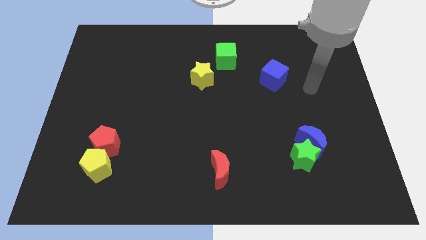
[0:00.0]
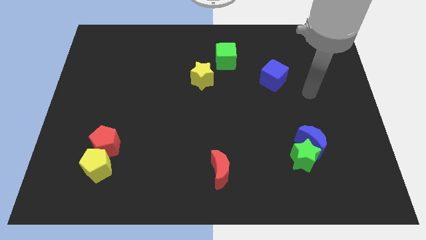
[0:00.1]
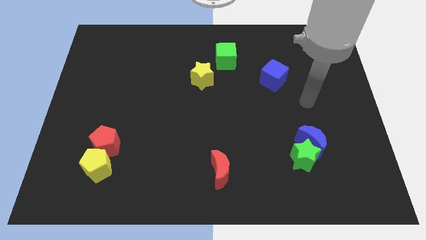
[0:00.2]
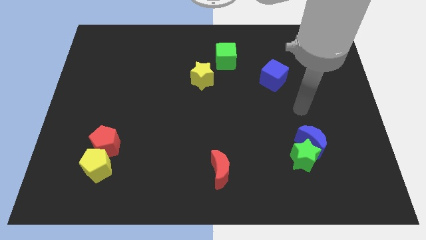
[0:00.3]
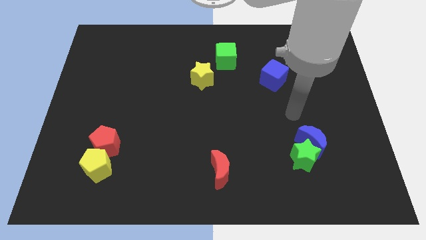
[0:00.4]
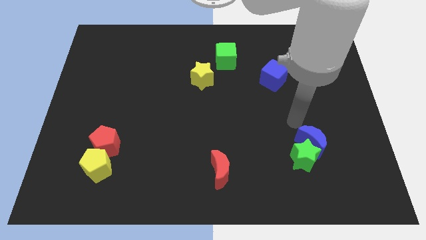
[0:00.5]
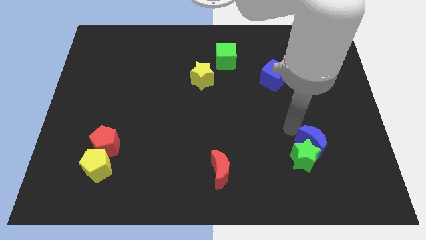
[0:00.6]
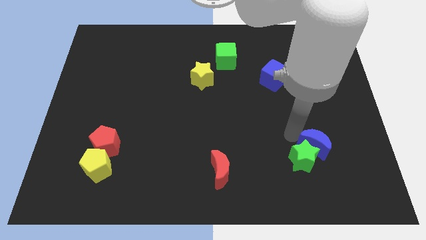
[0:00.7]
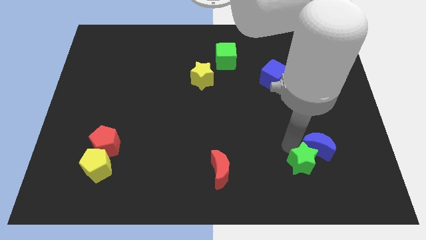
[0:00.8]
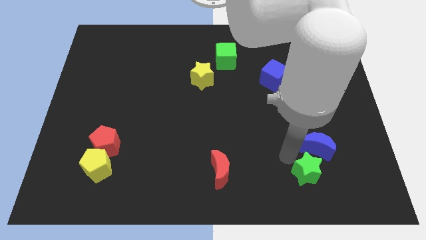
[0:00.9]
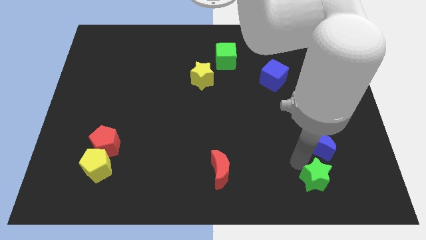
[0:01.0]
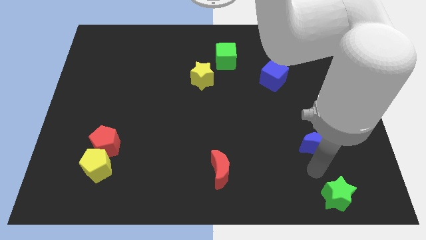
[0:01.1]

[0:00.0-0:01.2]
move the blue moon away from the green star

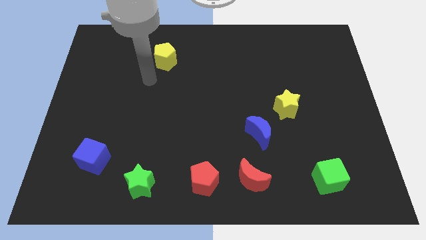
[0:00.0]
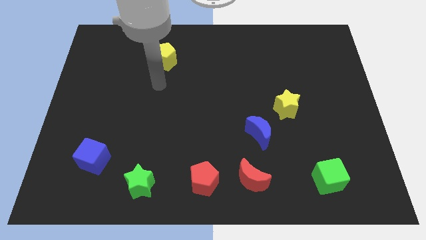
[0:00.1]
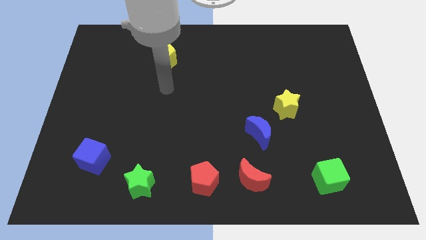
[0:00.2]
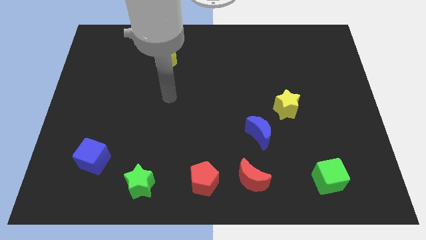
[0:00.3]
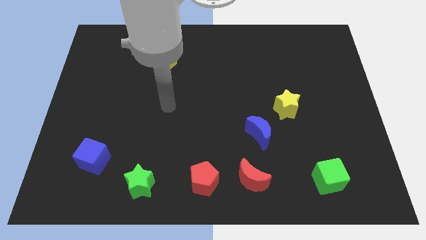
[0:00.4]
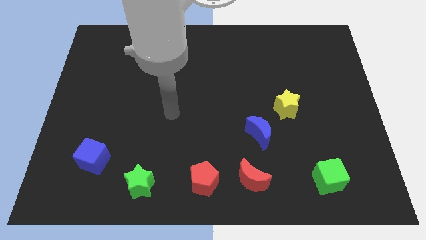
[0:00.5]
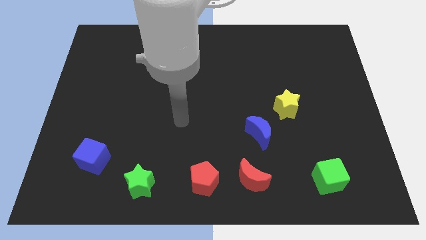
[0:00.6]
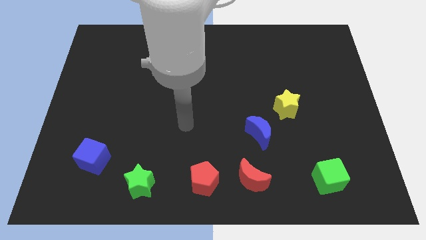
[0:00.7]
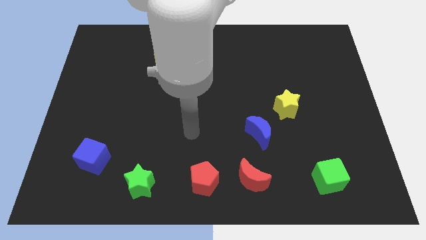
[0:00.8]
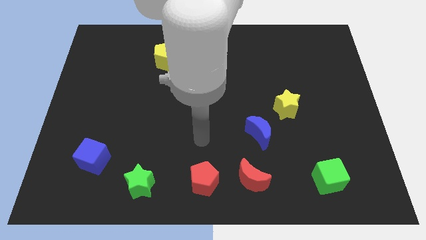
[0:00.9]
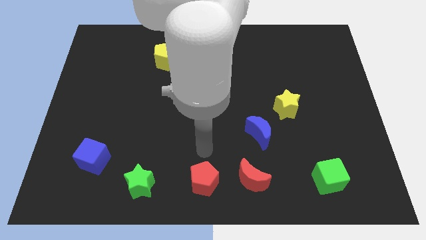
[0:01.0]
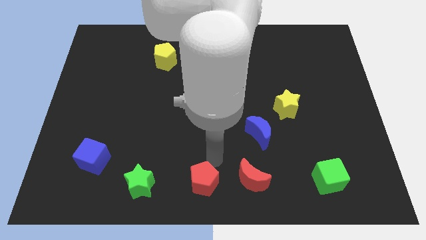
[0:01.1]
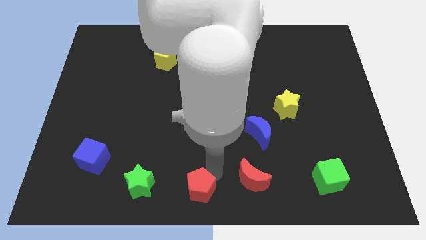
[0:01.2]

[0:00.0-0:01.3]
pull the red moon apart from the red pentagon

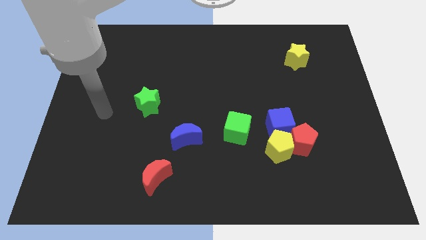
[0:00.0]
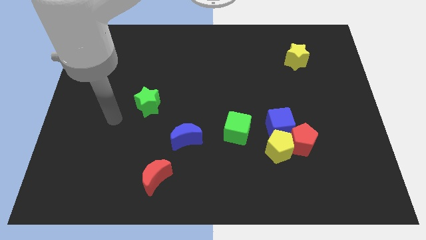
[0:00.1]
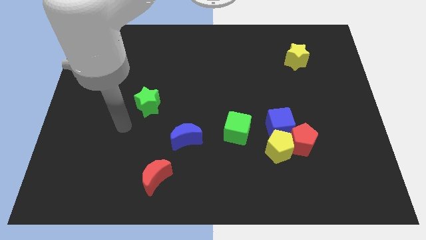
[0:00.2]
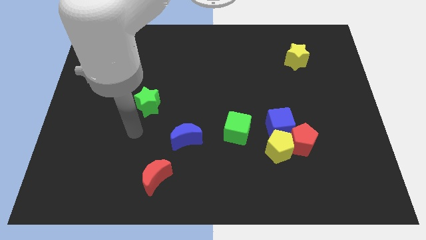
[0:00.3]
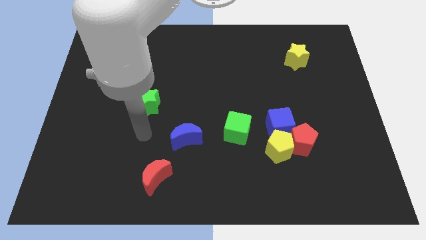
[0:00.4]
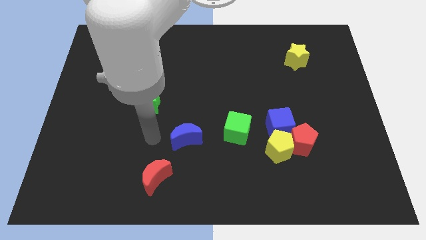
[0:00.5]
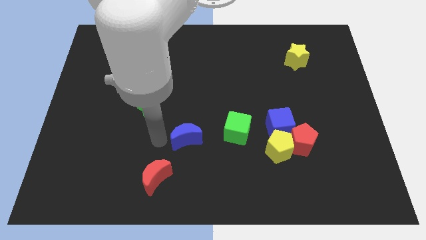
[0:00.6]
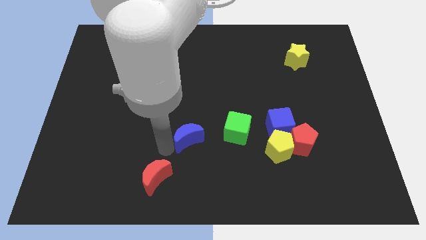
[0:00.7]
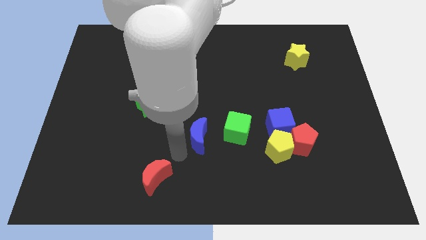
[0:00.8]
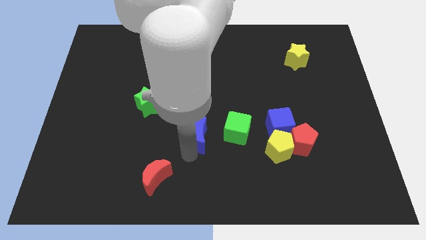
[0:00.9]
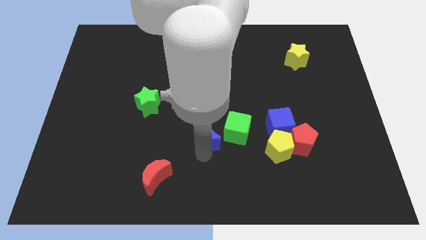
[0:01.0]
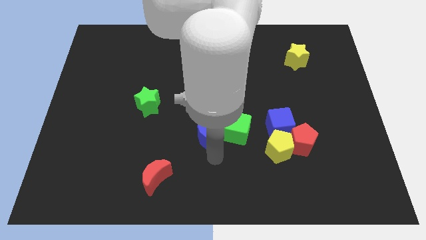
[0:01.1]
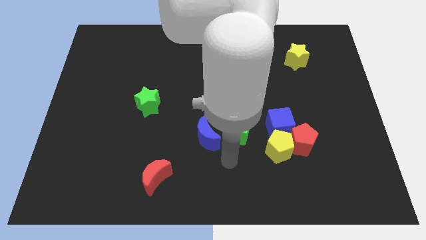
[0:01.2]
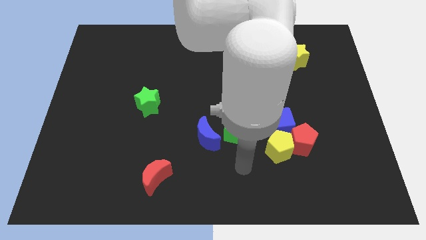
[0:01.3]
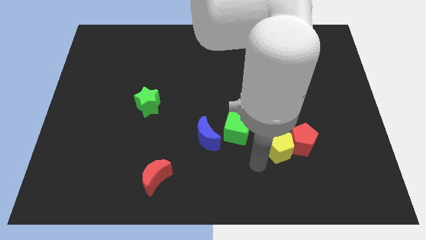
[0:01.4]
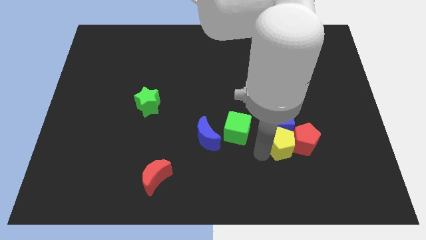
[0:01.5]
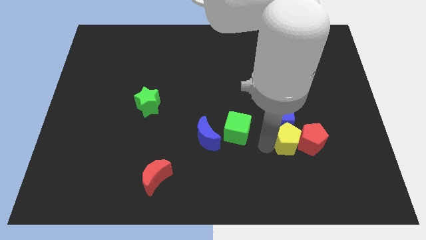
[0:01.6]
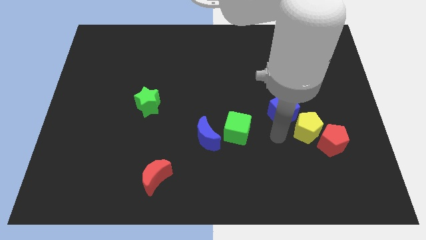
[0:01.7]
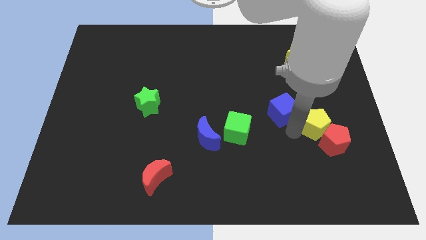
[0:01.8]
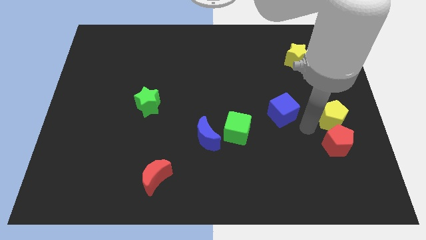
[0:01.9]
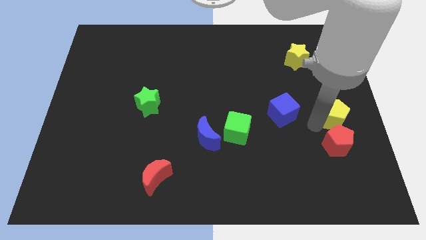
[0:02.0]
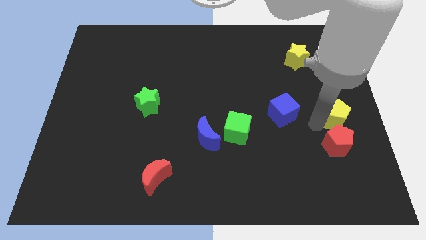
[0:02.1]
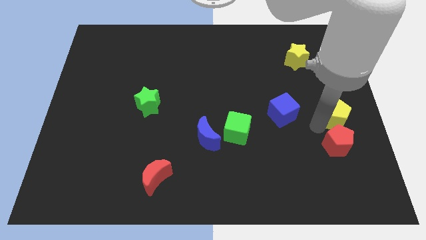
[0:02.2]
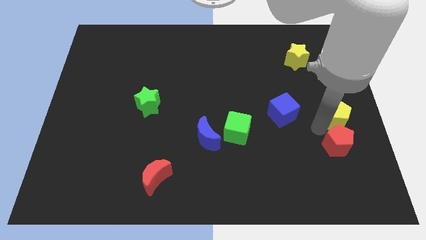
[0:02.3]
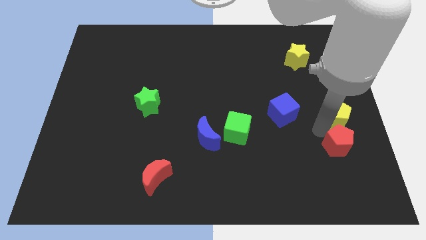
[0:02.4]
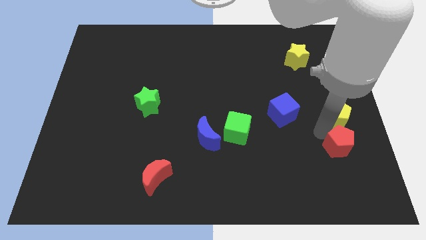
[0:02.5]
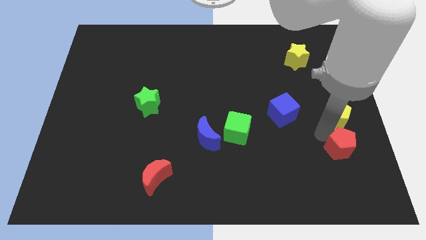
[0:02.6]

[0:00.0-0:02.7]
move the red pentagon away from the yellow pentagon and blue cube

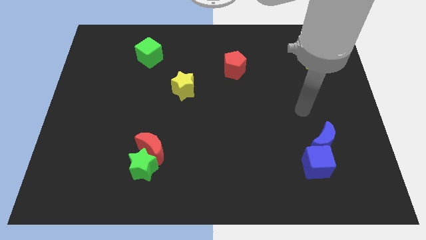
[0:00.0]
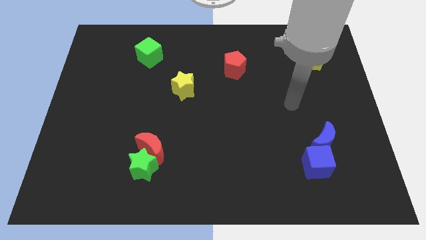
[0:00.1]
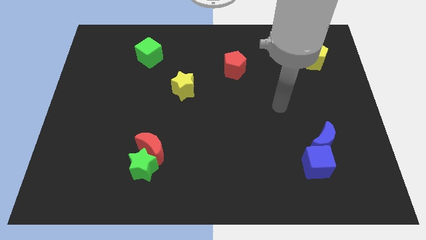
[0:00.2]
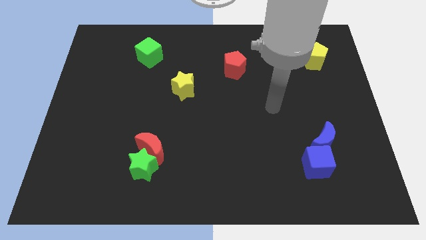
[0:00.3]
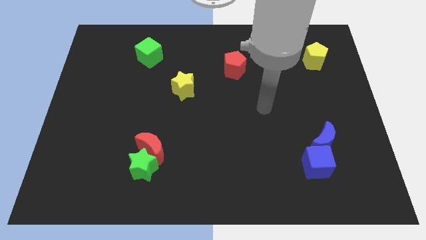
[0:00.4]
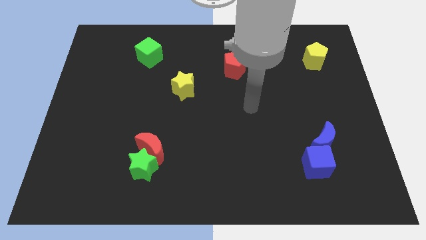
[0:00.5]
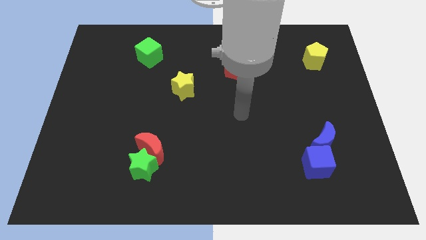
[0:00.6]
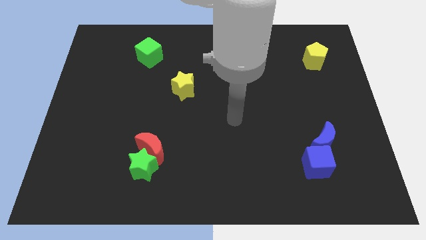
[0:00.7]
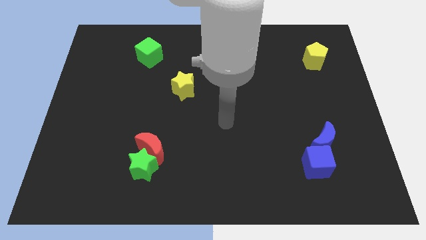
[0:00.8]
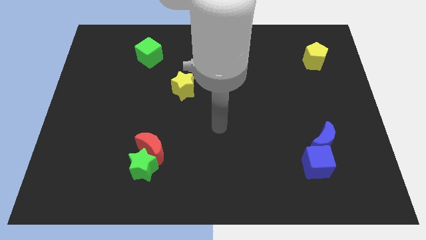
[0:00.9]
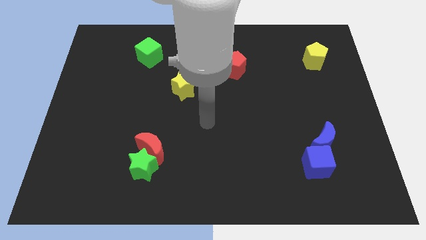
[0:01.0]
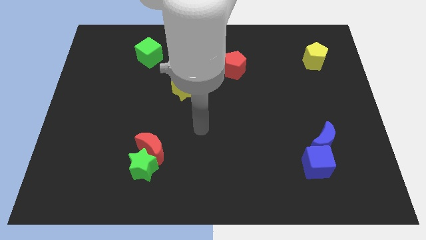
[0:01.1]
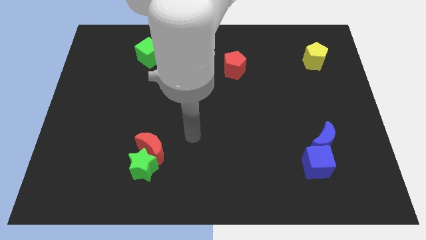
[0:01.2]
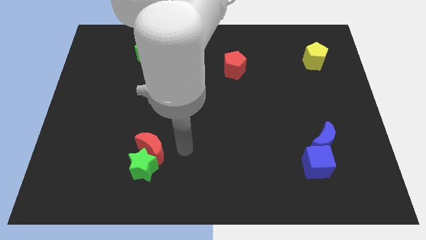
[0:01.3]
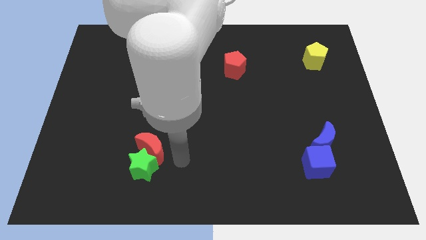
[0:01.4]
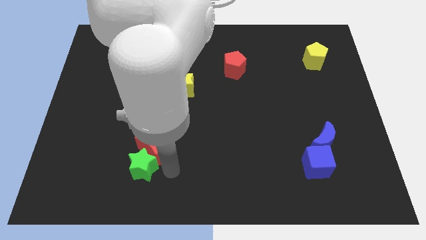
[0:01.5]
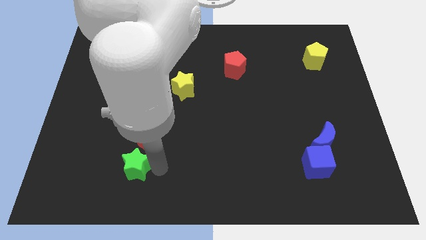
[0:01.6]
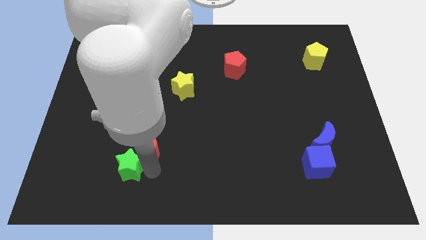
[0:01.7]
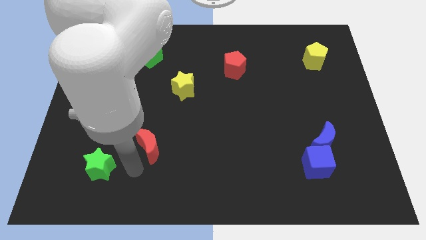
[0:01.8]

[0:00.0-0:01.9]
separate the red moon from the green star

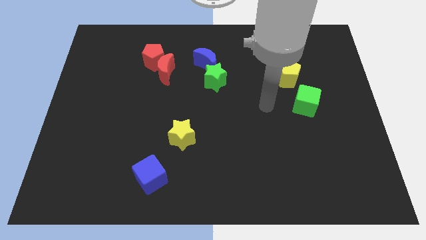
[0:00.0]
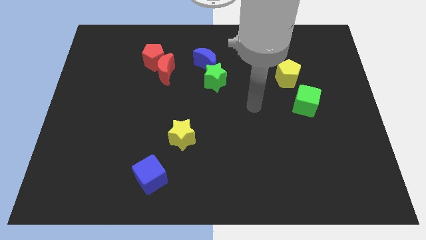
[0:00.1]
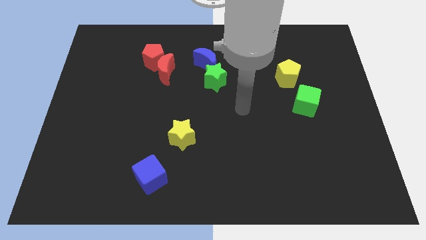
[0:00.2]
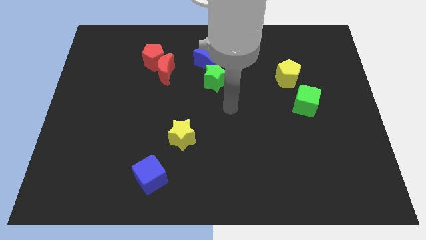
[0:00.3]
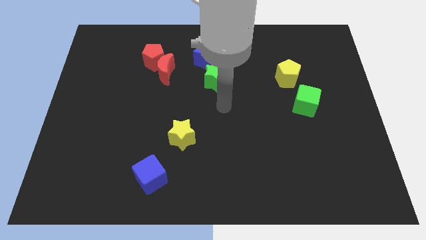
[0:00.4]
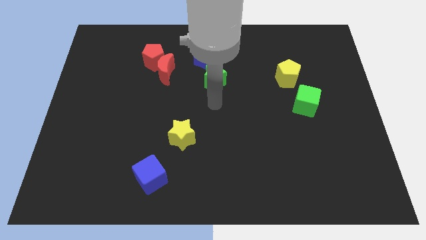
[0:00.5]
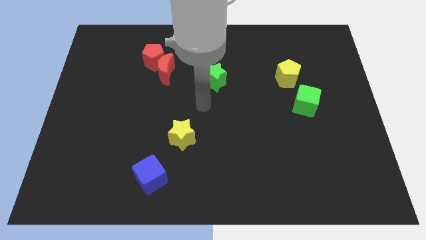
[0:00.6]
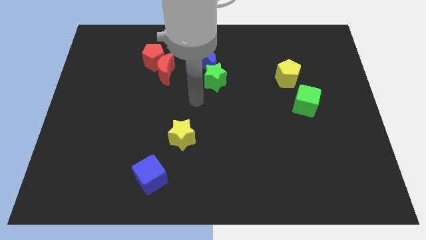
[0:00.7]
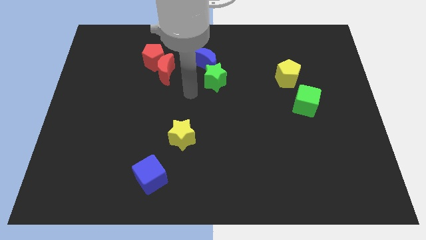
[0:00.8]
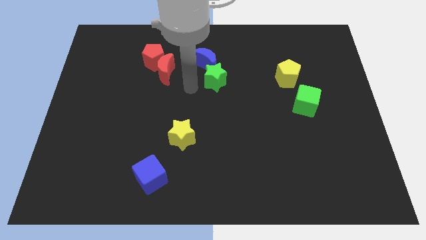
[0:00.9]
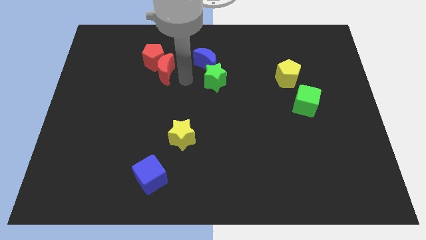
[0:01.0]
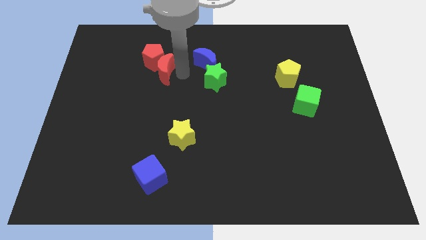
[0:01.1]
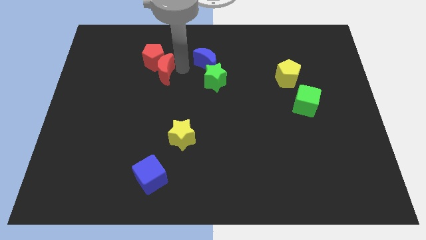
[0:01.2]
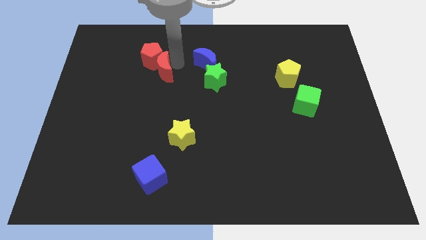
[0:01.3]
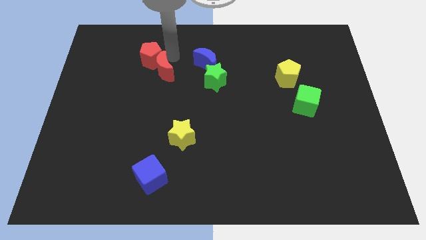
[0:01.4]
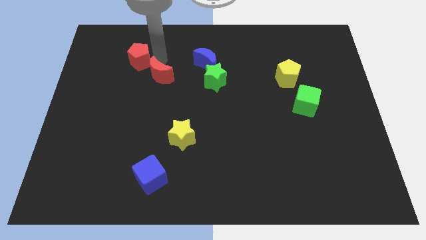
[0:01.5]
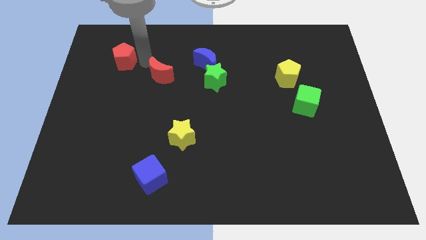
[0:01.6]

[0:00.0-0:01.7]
move the red moon away from the red pentagon

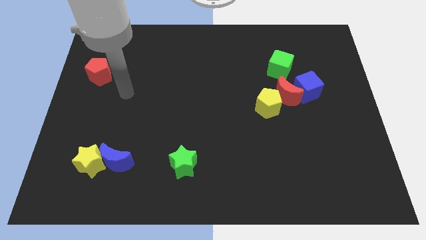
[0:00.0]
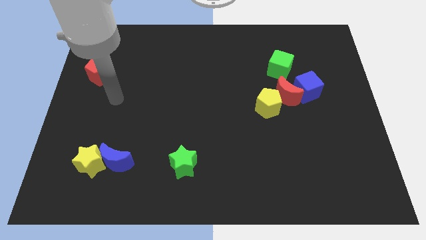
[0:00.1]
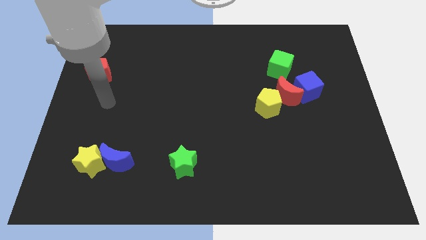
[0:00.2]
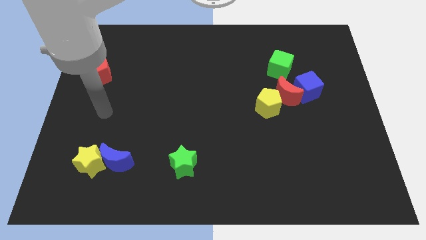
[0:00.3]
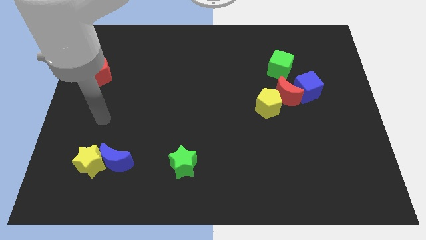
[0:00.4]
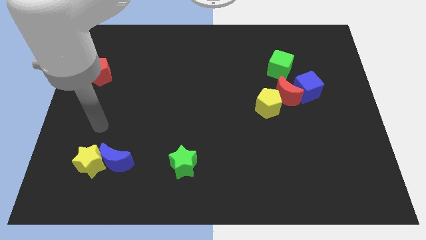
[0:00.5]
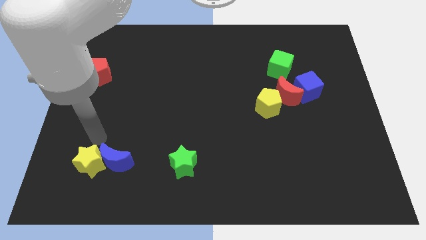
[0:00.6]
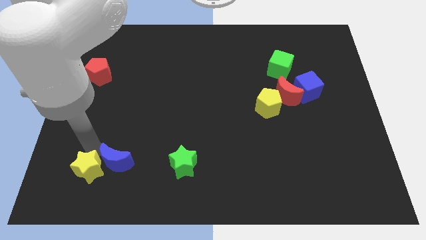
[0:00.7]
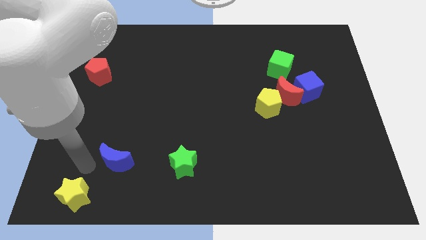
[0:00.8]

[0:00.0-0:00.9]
separate the blue moon from the yellow star
